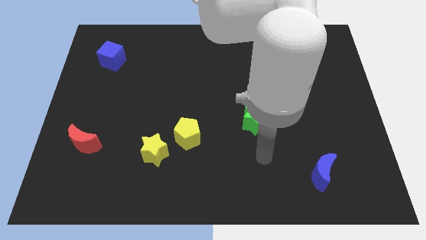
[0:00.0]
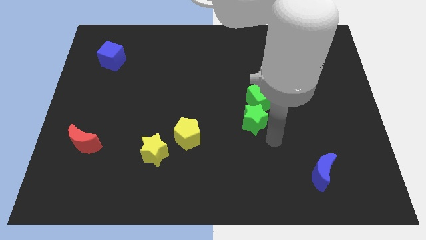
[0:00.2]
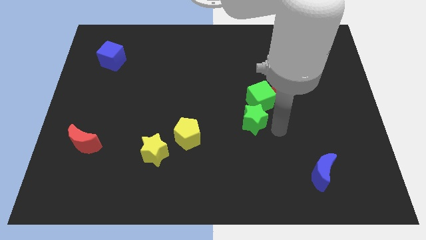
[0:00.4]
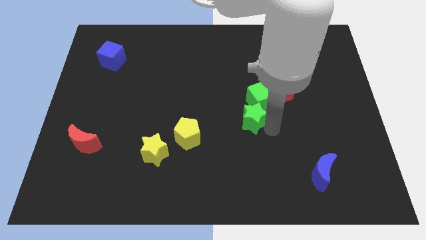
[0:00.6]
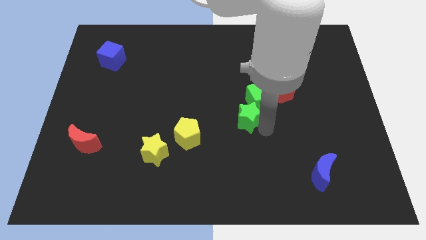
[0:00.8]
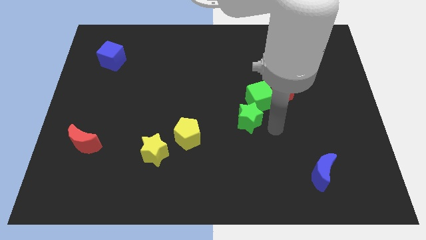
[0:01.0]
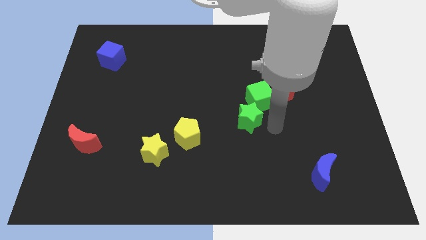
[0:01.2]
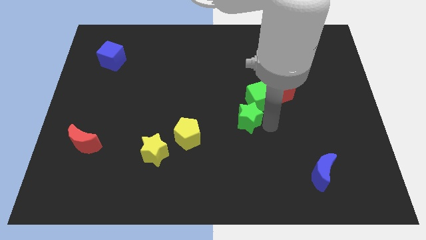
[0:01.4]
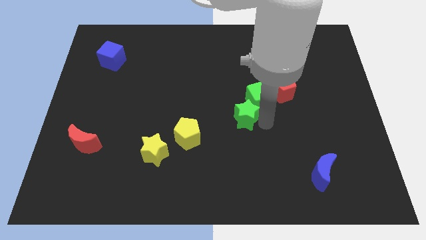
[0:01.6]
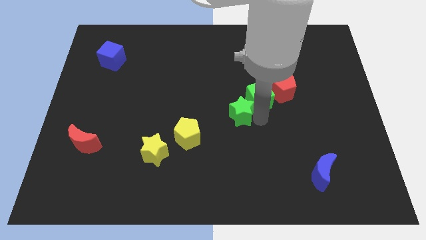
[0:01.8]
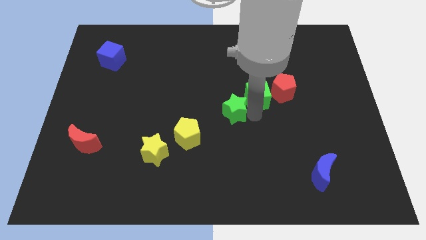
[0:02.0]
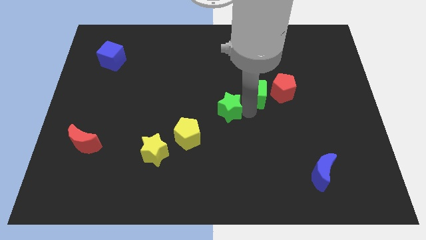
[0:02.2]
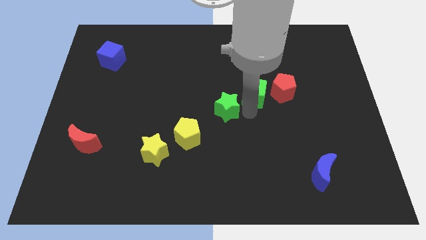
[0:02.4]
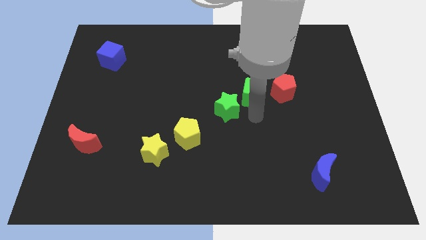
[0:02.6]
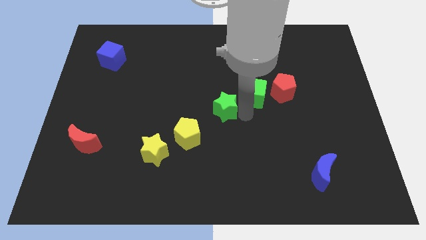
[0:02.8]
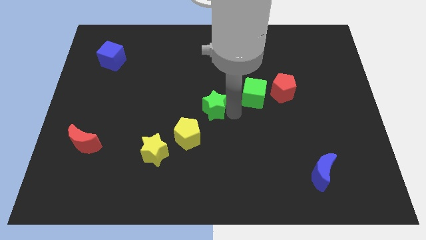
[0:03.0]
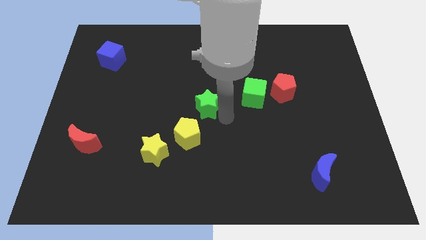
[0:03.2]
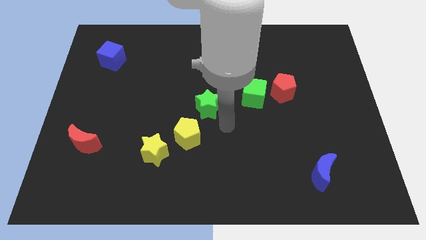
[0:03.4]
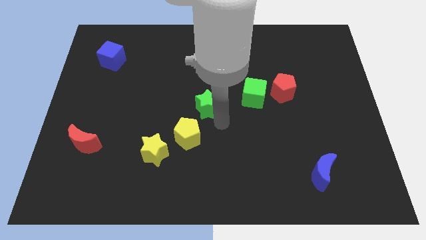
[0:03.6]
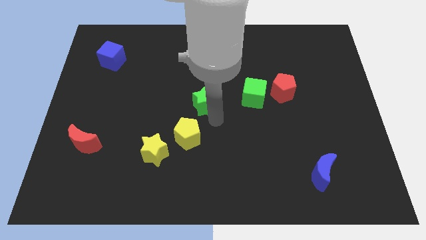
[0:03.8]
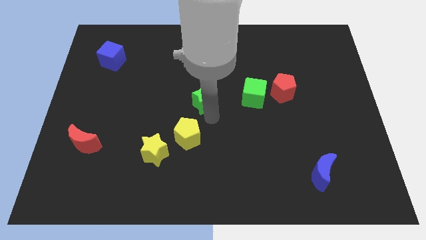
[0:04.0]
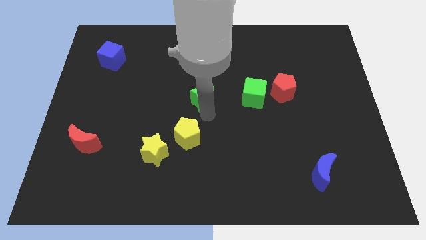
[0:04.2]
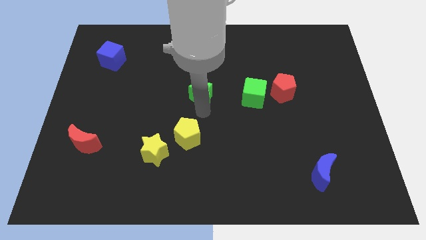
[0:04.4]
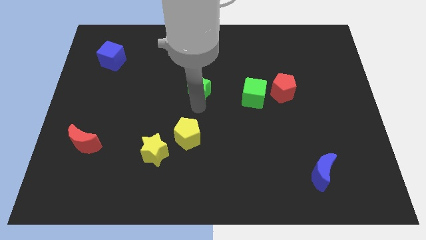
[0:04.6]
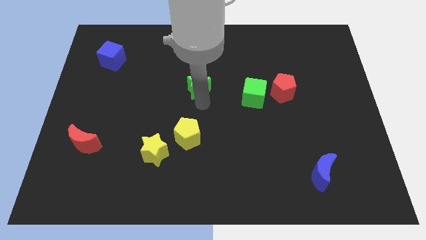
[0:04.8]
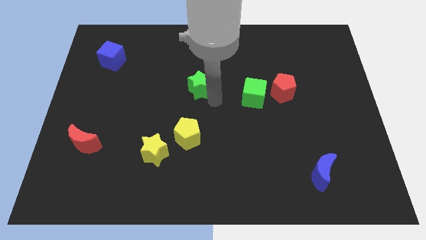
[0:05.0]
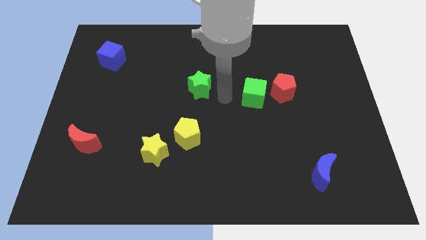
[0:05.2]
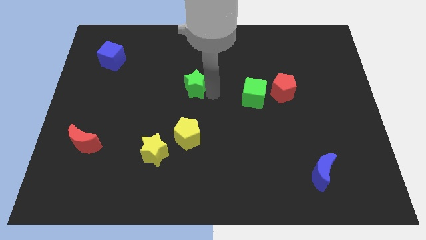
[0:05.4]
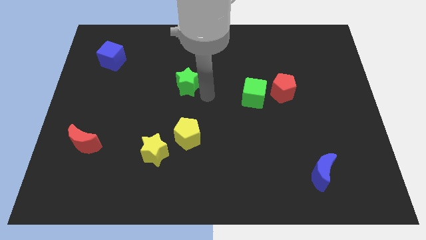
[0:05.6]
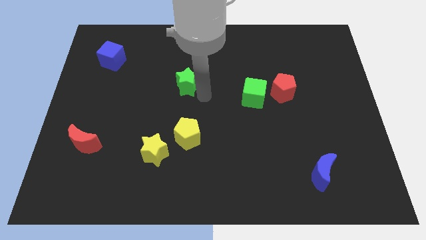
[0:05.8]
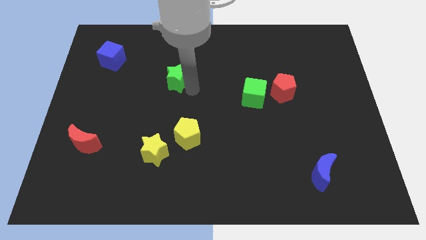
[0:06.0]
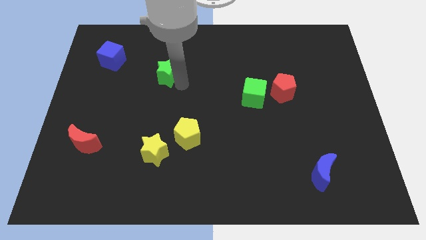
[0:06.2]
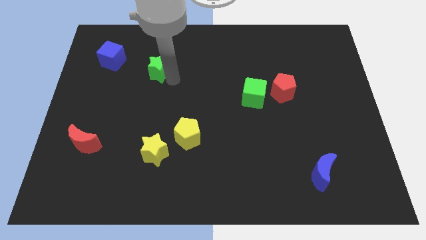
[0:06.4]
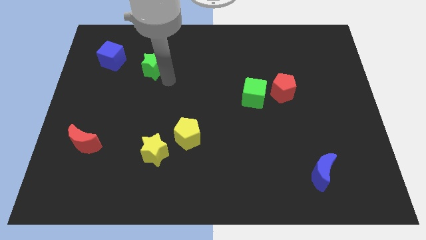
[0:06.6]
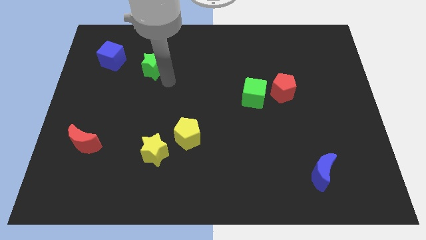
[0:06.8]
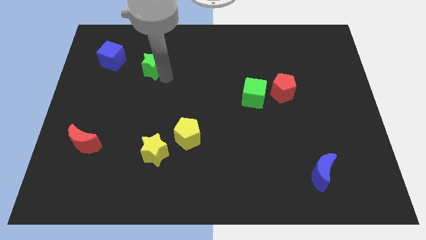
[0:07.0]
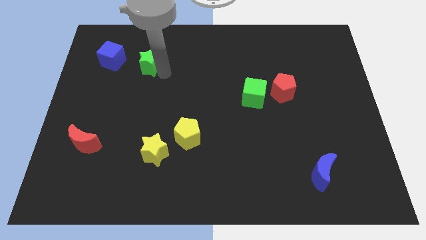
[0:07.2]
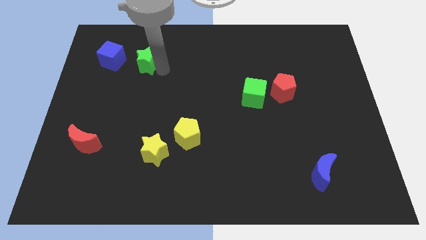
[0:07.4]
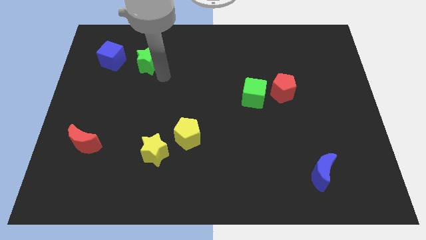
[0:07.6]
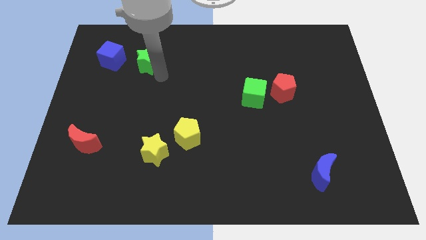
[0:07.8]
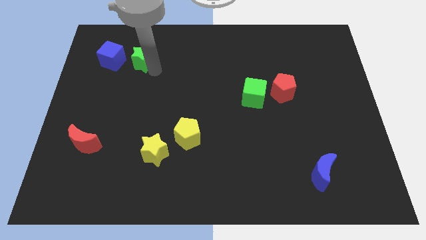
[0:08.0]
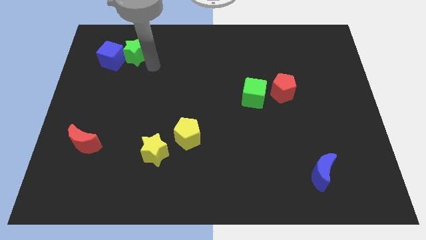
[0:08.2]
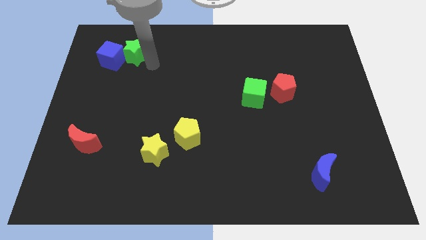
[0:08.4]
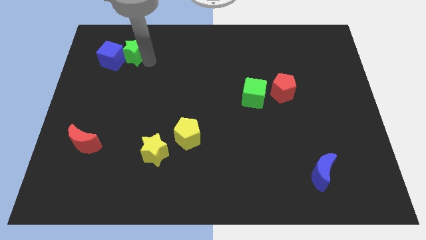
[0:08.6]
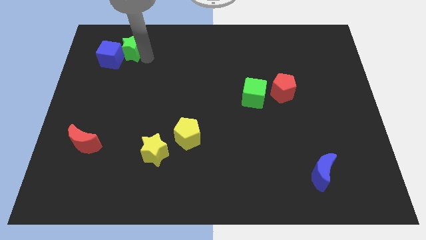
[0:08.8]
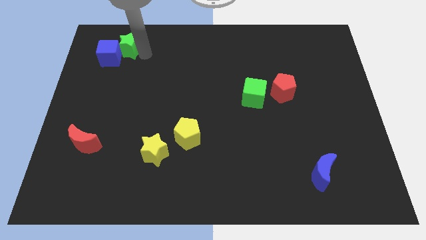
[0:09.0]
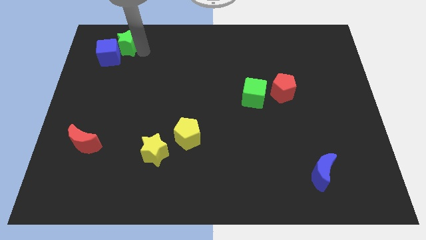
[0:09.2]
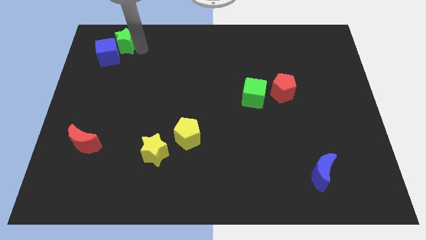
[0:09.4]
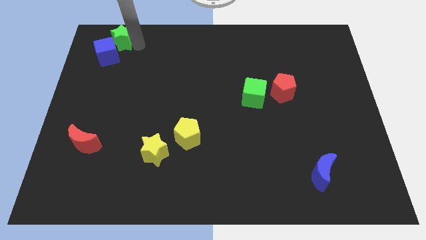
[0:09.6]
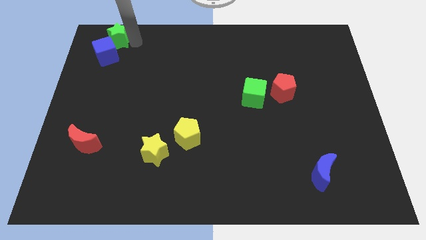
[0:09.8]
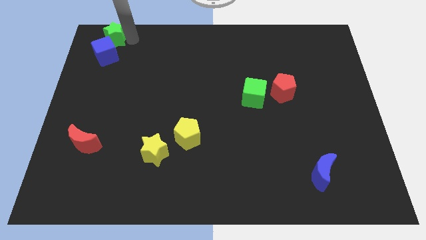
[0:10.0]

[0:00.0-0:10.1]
slide the green star to the top left of the board

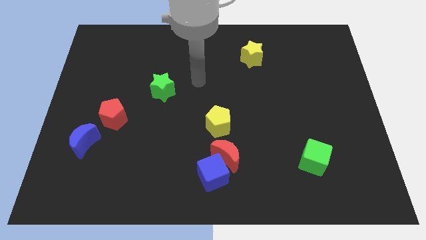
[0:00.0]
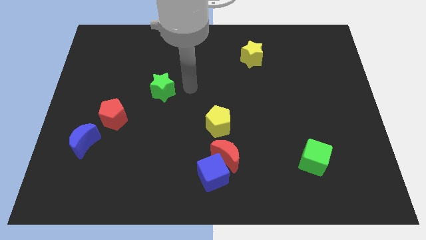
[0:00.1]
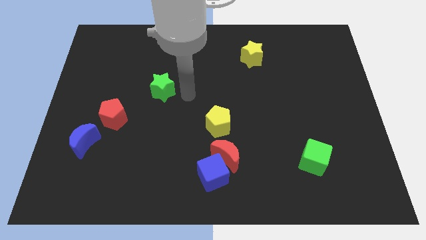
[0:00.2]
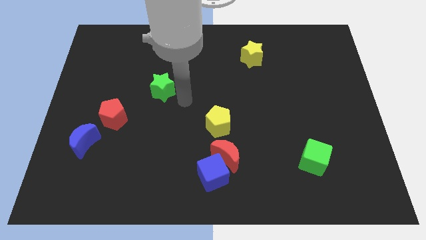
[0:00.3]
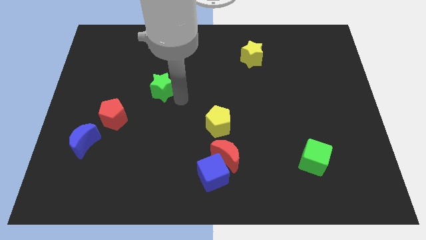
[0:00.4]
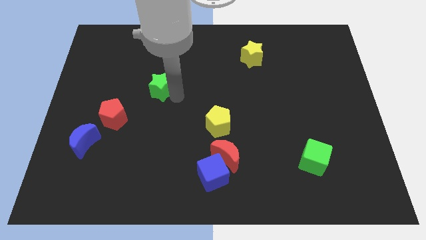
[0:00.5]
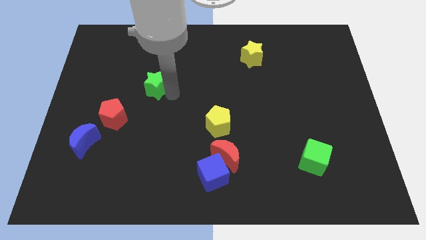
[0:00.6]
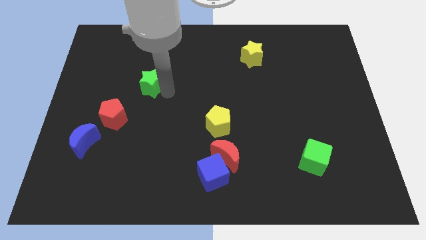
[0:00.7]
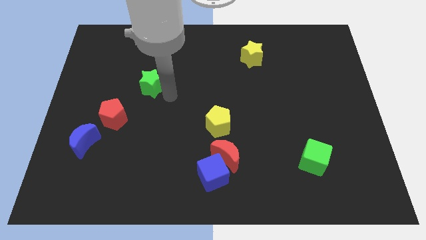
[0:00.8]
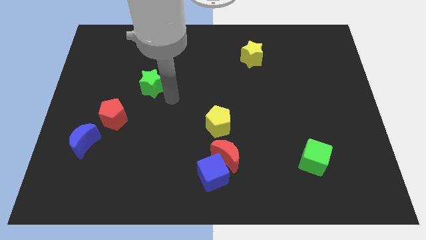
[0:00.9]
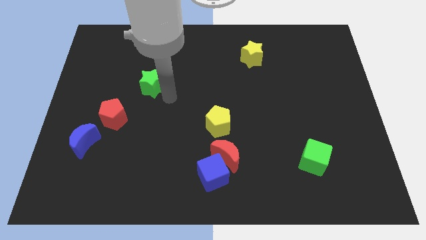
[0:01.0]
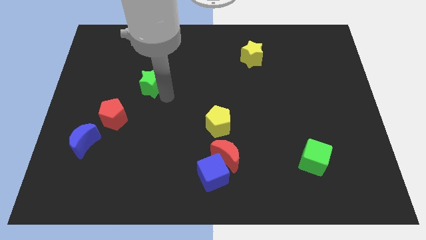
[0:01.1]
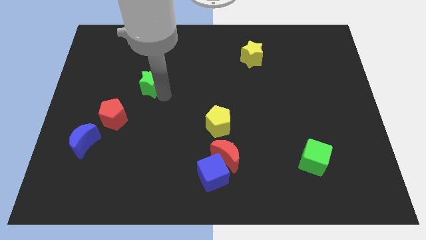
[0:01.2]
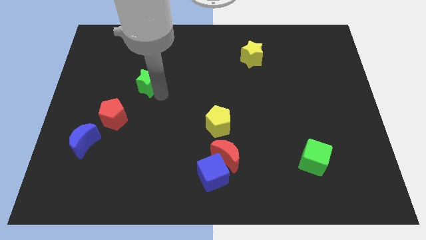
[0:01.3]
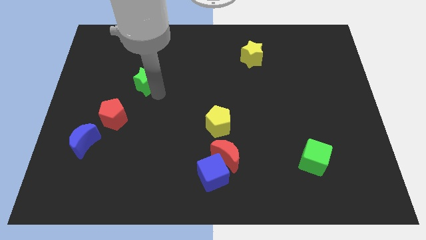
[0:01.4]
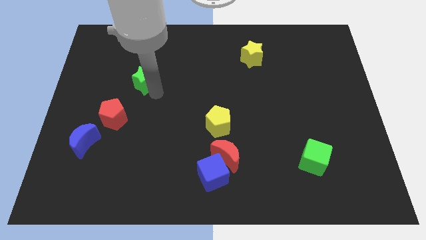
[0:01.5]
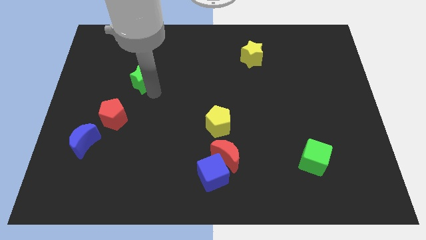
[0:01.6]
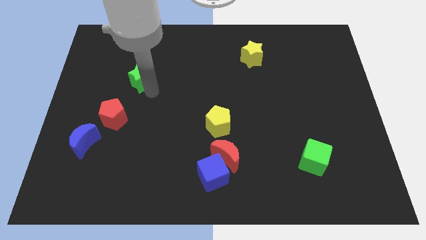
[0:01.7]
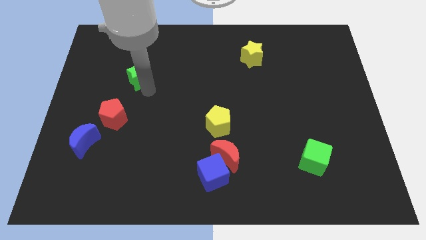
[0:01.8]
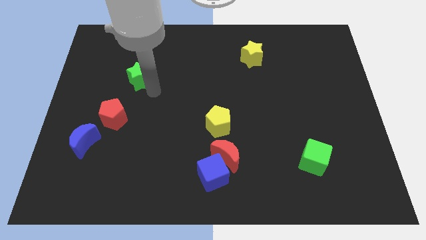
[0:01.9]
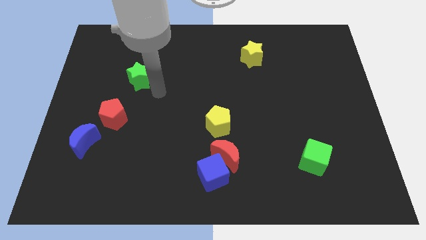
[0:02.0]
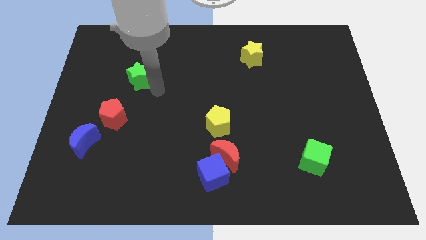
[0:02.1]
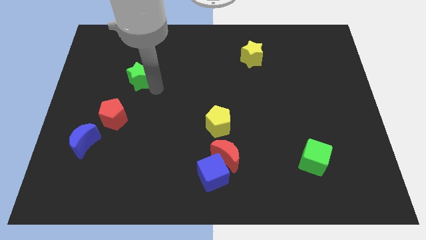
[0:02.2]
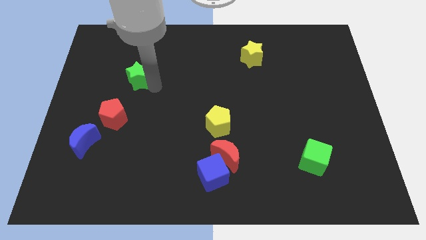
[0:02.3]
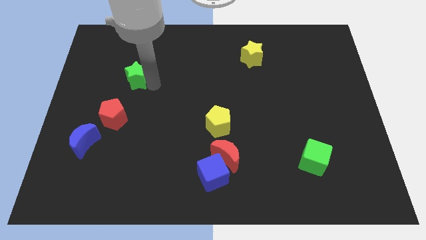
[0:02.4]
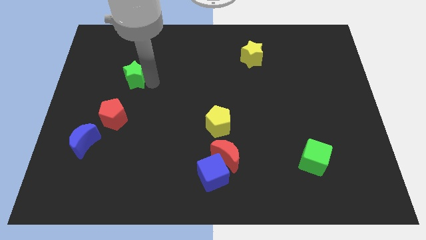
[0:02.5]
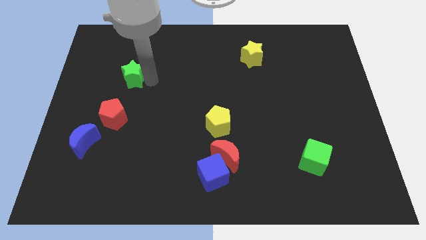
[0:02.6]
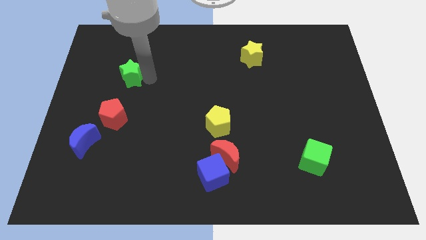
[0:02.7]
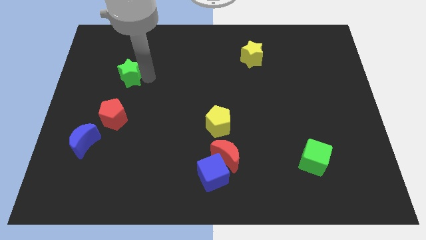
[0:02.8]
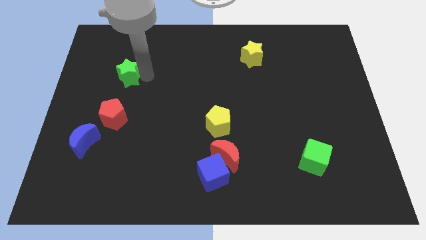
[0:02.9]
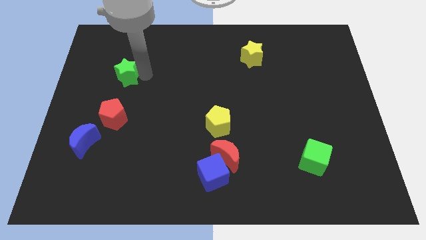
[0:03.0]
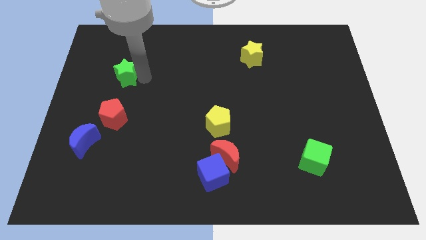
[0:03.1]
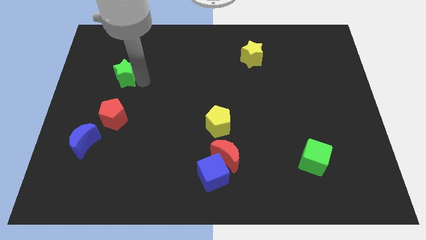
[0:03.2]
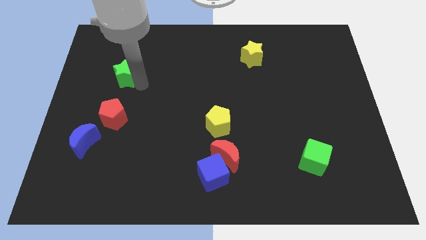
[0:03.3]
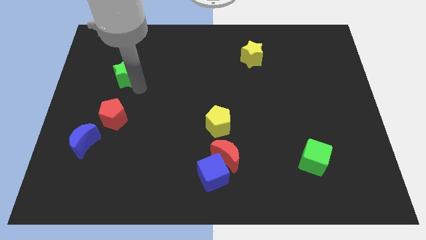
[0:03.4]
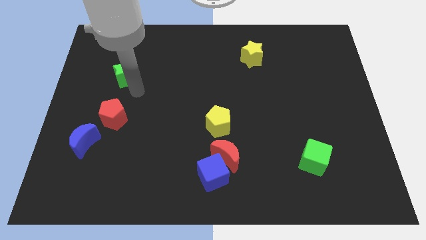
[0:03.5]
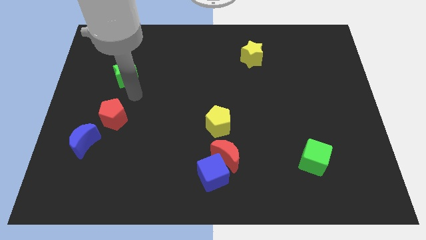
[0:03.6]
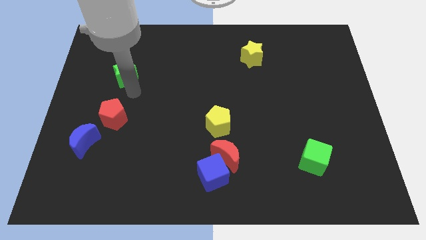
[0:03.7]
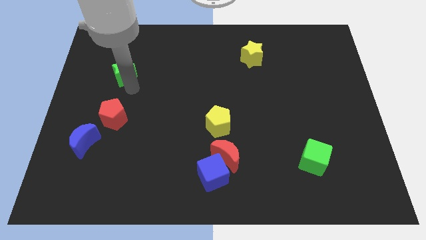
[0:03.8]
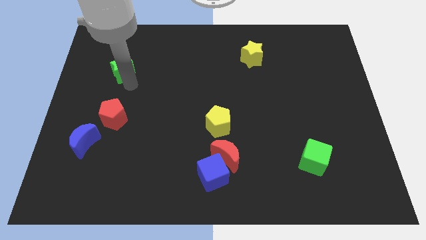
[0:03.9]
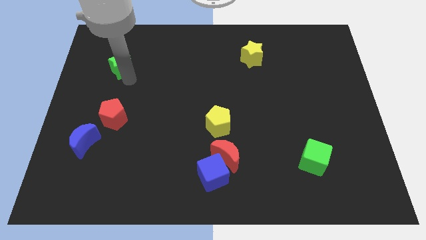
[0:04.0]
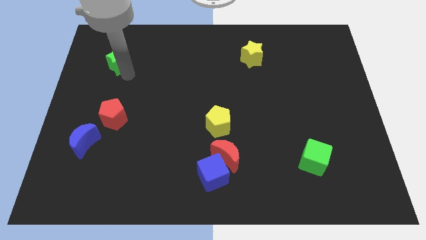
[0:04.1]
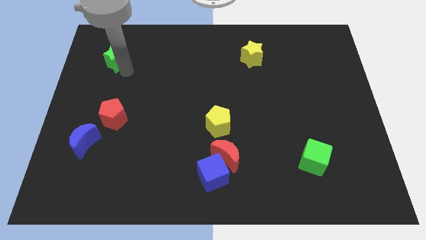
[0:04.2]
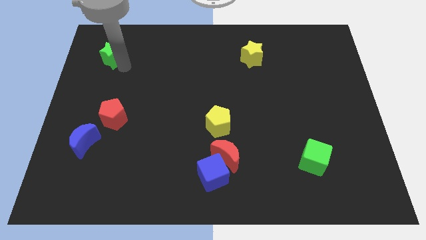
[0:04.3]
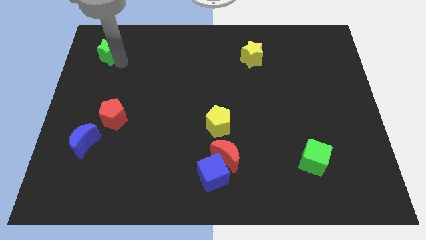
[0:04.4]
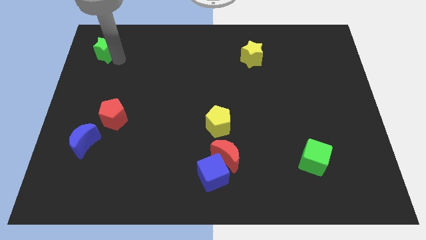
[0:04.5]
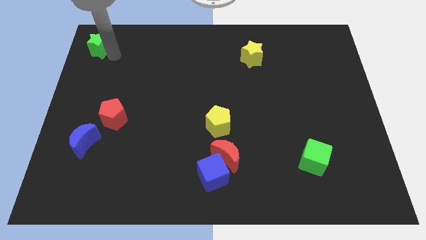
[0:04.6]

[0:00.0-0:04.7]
push the green star to the top left corner
